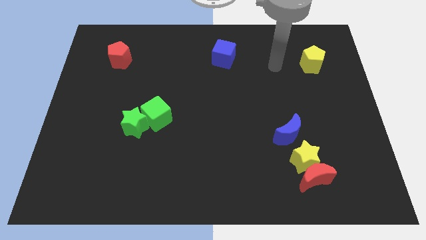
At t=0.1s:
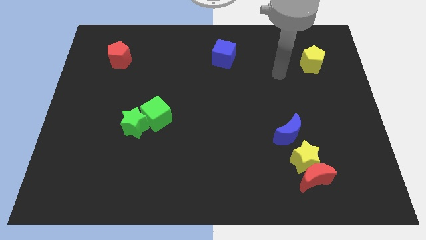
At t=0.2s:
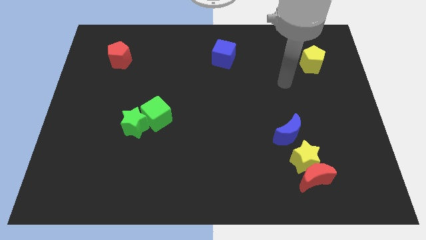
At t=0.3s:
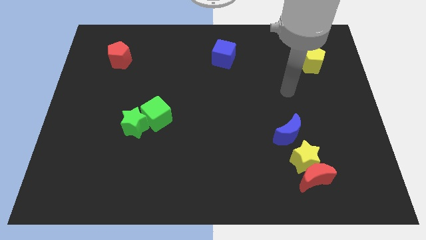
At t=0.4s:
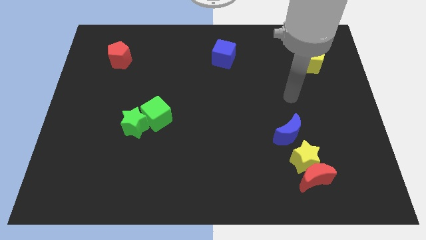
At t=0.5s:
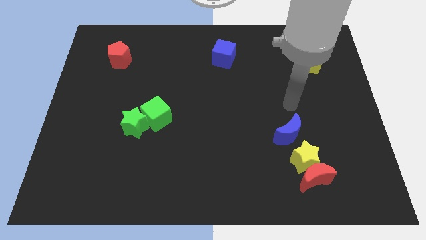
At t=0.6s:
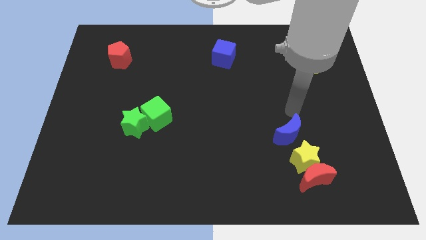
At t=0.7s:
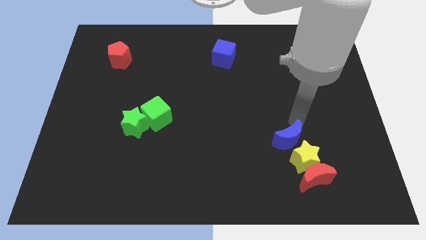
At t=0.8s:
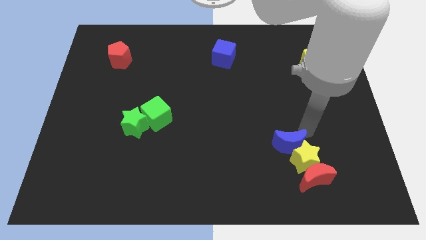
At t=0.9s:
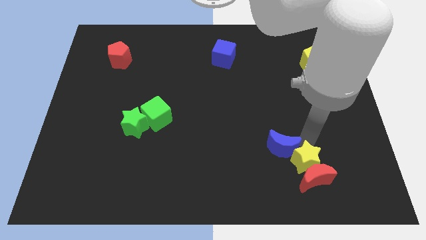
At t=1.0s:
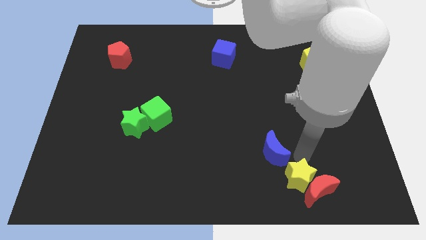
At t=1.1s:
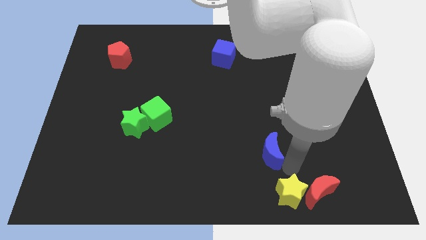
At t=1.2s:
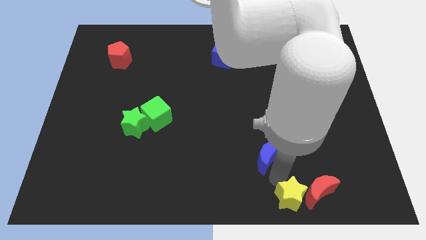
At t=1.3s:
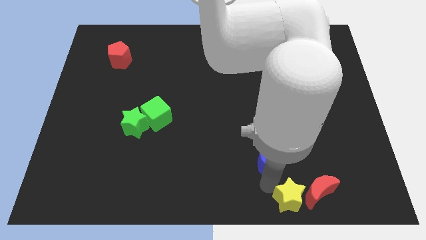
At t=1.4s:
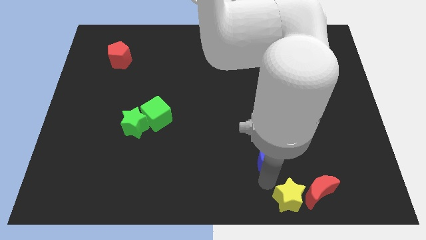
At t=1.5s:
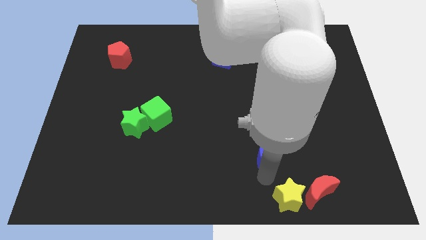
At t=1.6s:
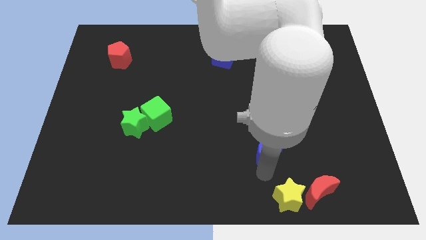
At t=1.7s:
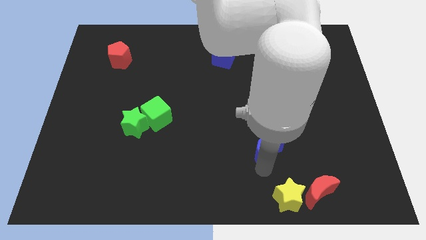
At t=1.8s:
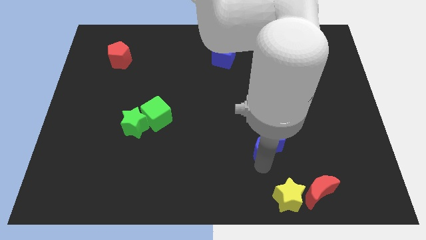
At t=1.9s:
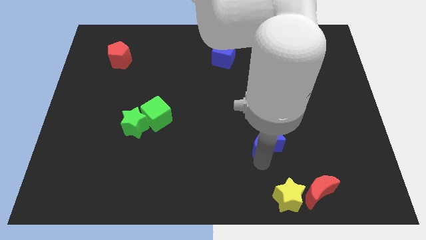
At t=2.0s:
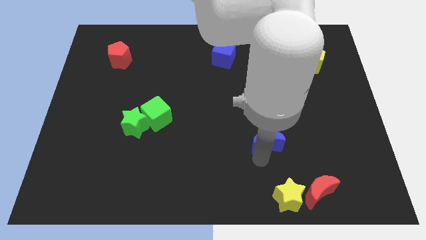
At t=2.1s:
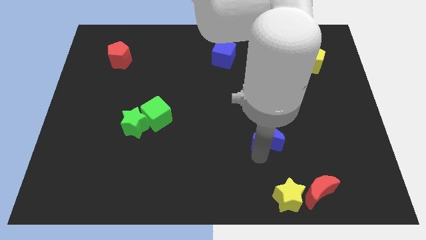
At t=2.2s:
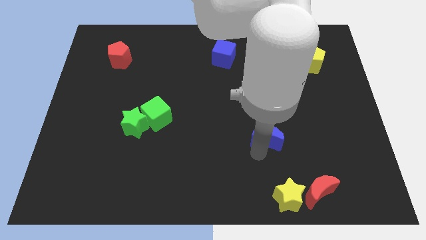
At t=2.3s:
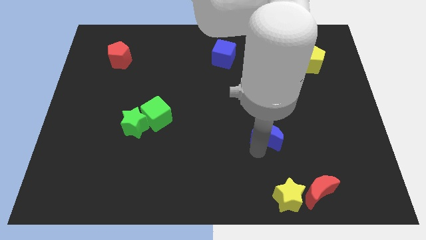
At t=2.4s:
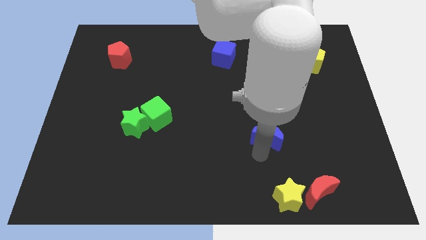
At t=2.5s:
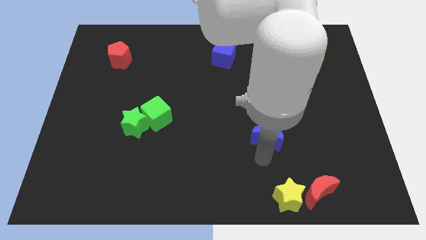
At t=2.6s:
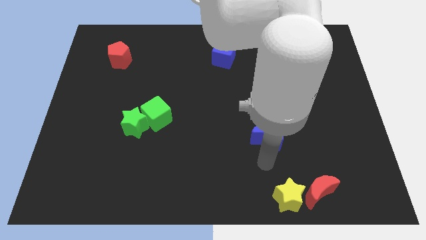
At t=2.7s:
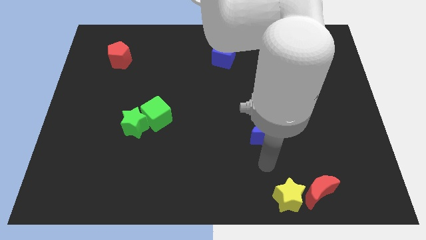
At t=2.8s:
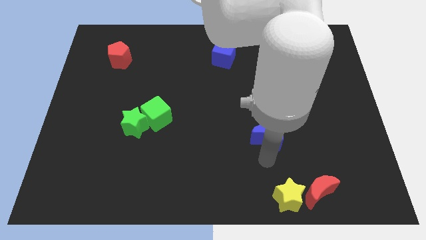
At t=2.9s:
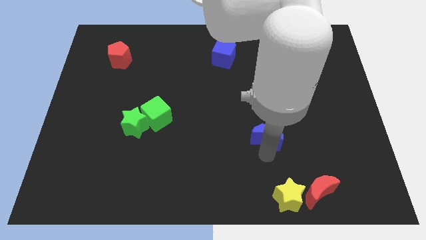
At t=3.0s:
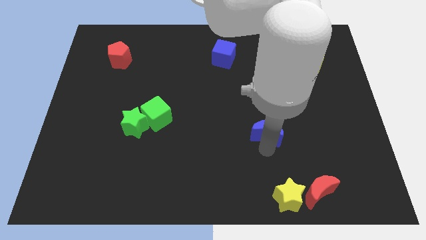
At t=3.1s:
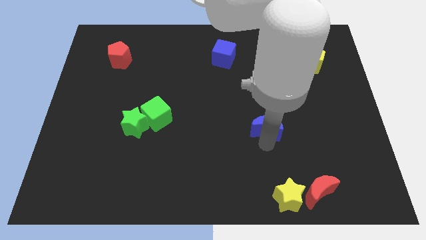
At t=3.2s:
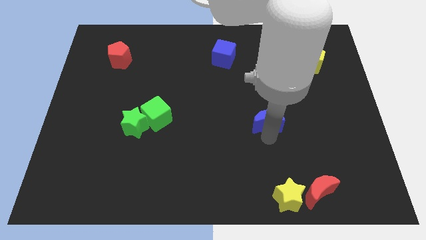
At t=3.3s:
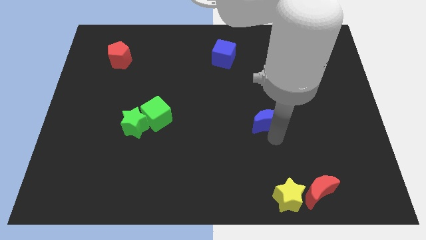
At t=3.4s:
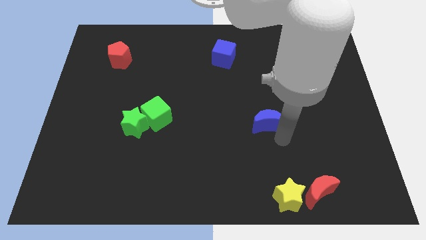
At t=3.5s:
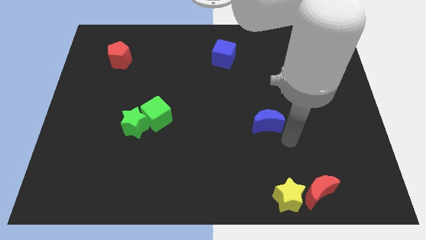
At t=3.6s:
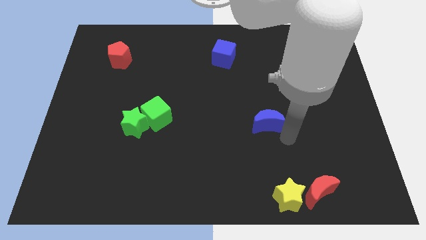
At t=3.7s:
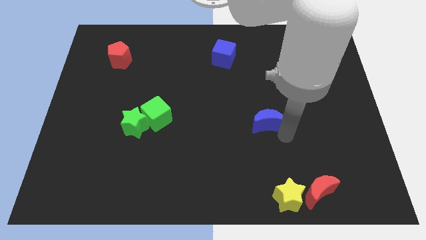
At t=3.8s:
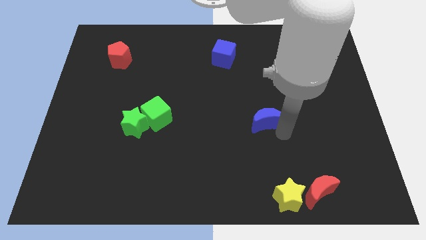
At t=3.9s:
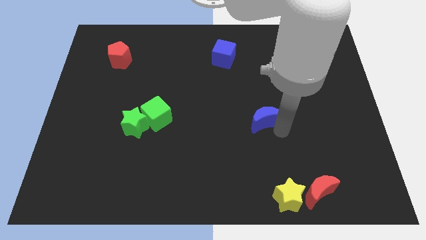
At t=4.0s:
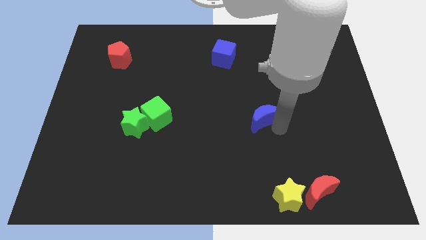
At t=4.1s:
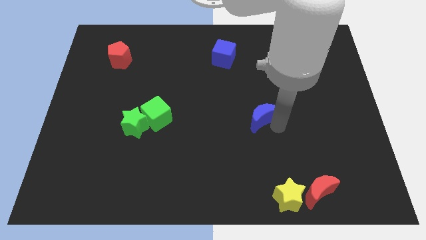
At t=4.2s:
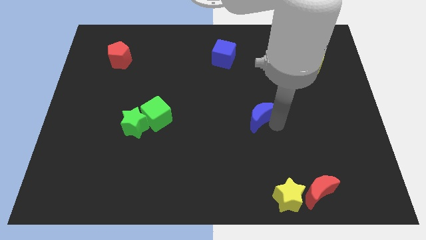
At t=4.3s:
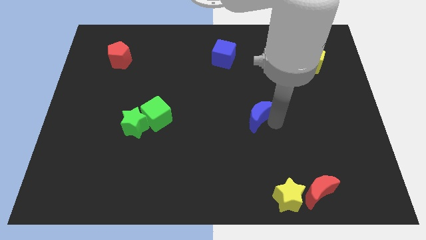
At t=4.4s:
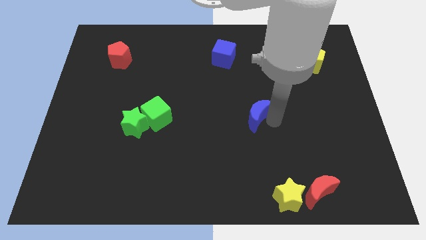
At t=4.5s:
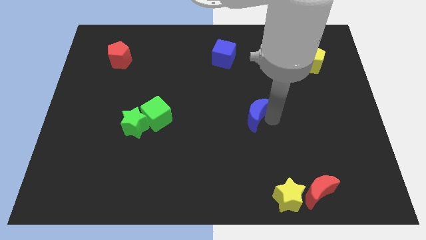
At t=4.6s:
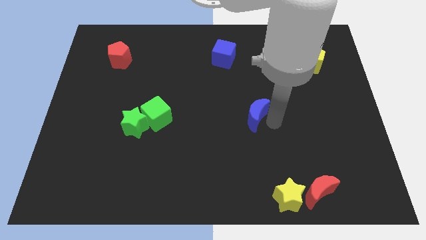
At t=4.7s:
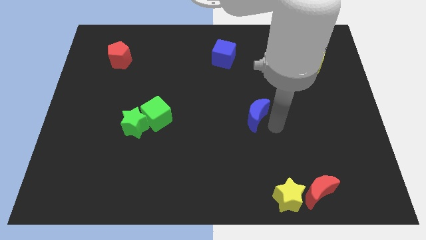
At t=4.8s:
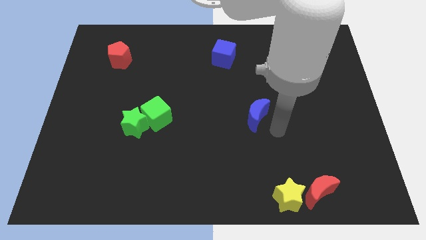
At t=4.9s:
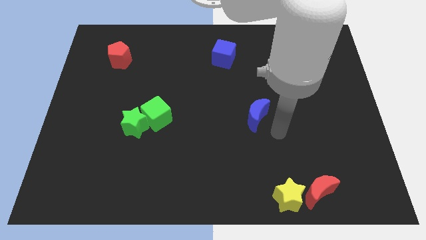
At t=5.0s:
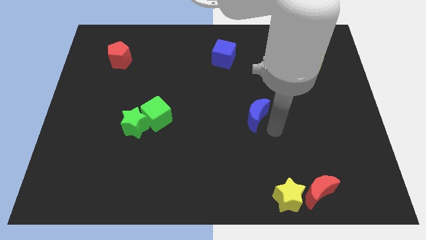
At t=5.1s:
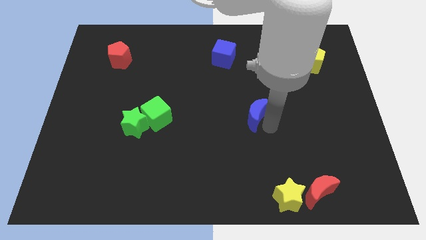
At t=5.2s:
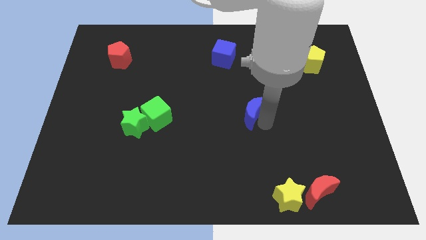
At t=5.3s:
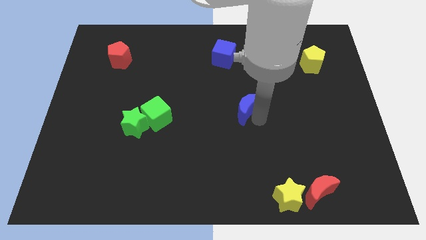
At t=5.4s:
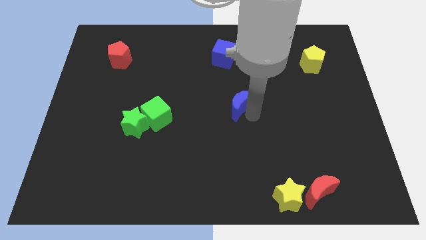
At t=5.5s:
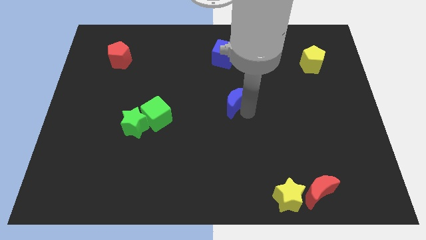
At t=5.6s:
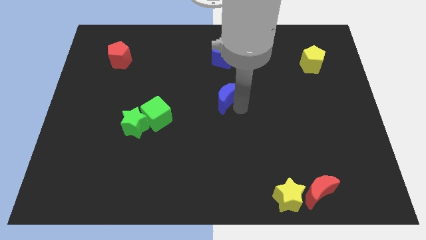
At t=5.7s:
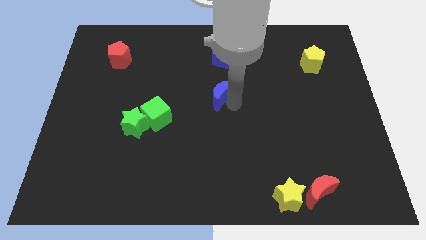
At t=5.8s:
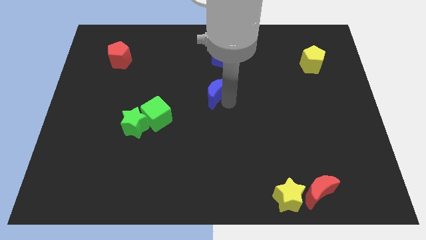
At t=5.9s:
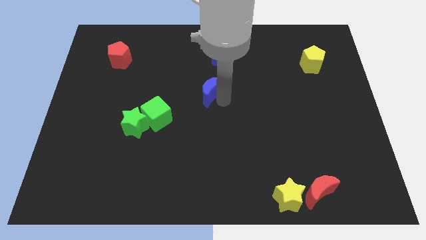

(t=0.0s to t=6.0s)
move the blue moon diagonally upwards and left

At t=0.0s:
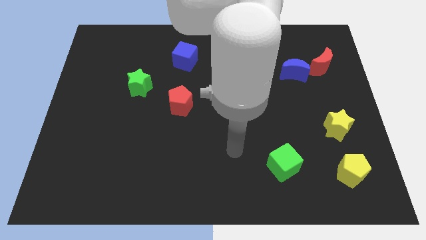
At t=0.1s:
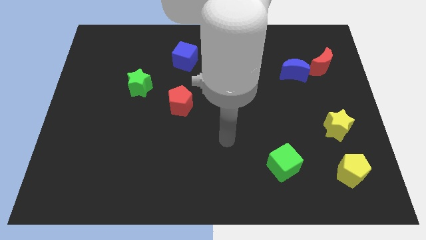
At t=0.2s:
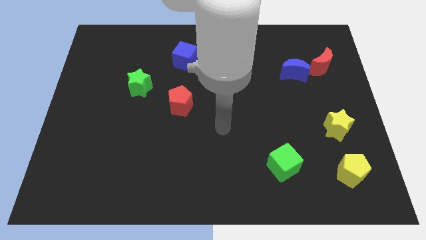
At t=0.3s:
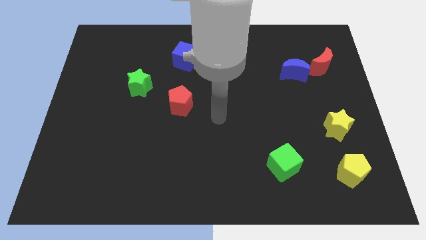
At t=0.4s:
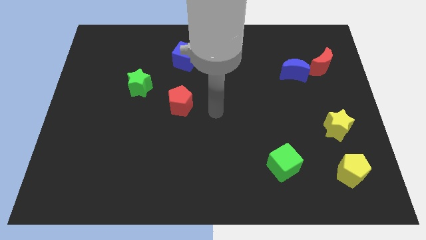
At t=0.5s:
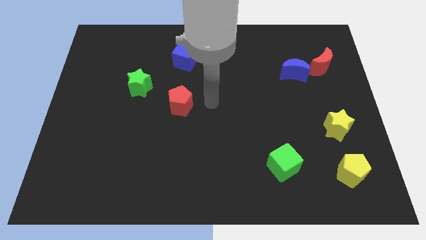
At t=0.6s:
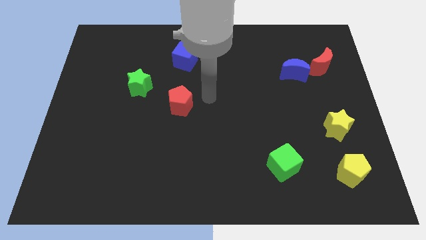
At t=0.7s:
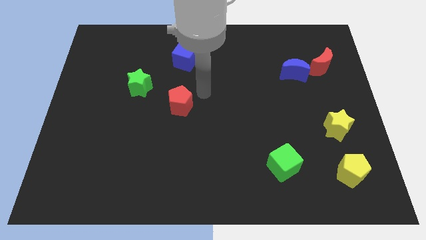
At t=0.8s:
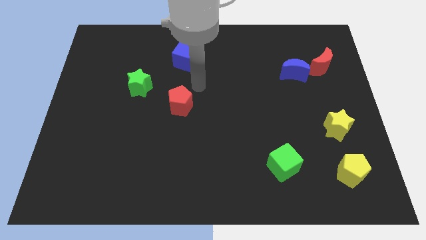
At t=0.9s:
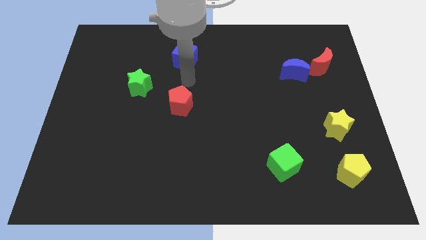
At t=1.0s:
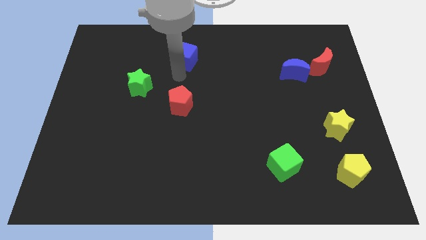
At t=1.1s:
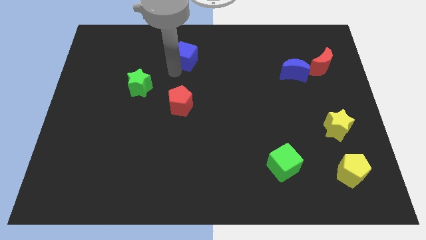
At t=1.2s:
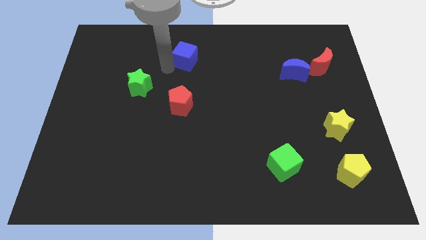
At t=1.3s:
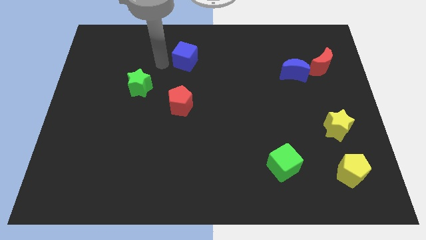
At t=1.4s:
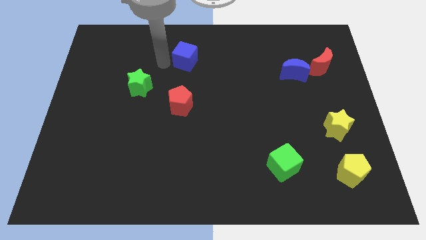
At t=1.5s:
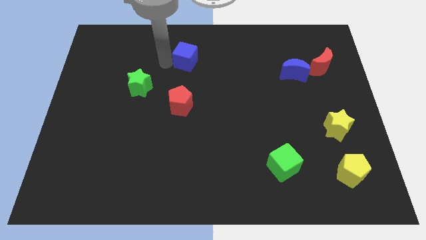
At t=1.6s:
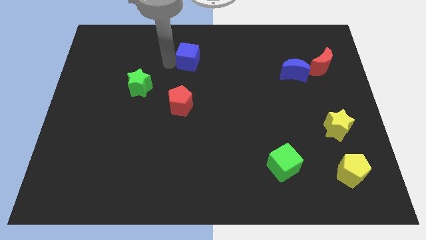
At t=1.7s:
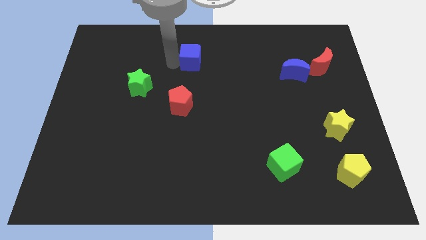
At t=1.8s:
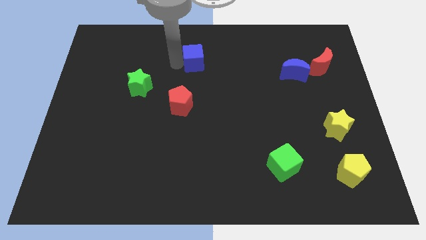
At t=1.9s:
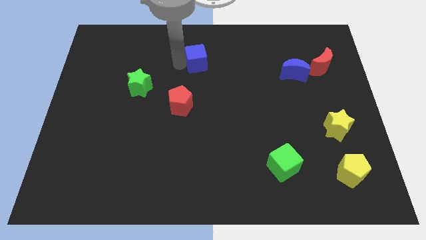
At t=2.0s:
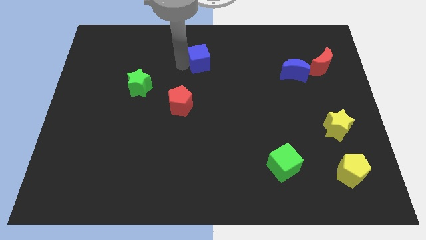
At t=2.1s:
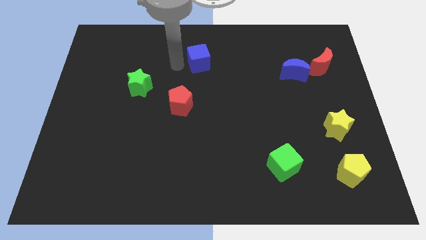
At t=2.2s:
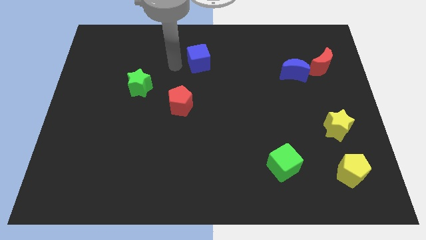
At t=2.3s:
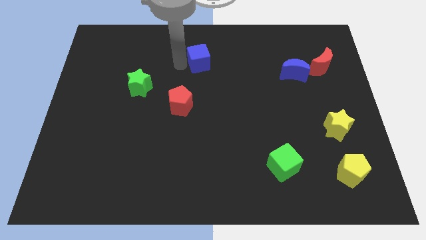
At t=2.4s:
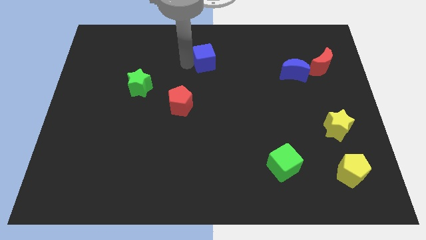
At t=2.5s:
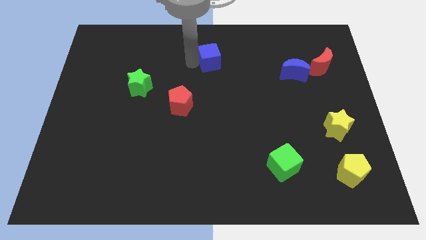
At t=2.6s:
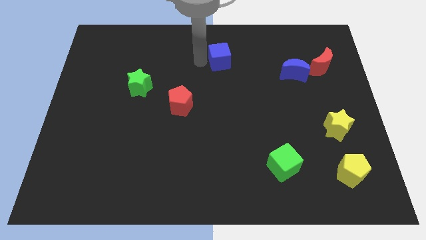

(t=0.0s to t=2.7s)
slightly move the blue cube to the right
